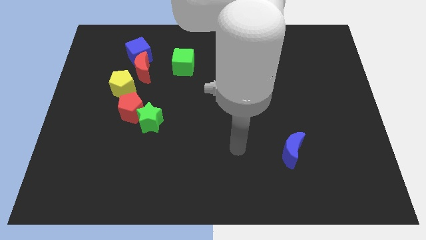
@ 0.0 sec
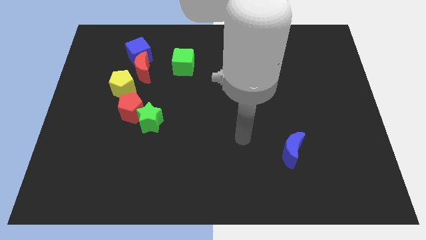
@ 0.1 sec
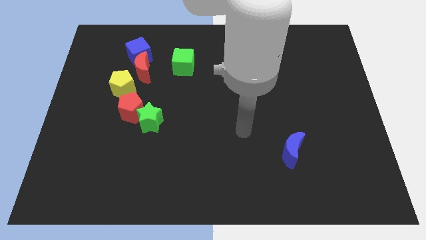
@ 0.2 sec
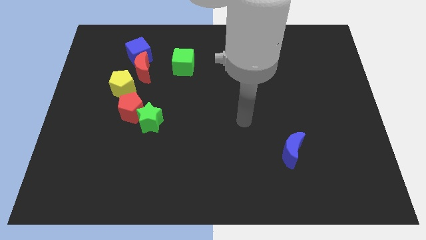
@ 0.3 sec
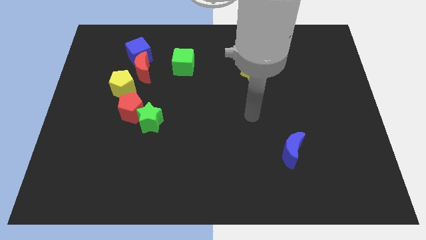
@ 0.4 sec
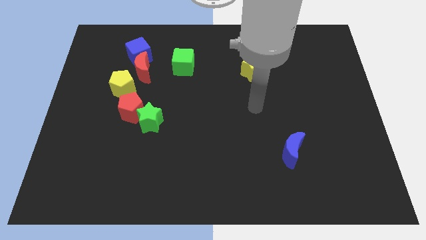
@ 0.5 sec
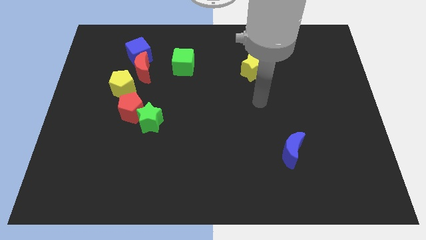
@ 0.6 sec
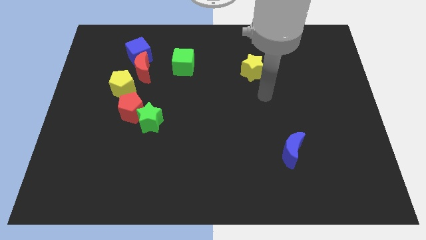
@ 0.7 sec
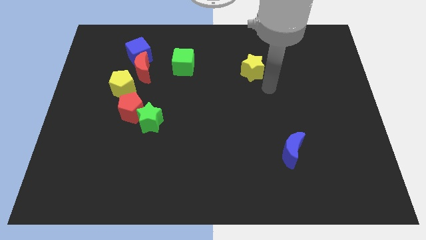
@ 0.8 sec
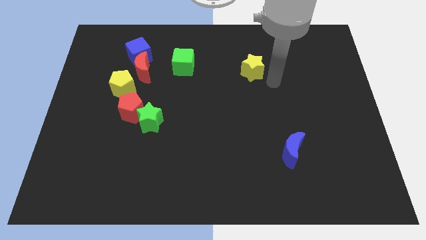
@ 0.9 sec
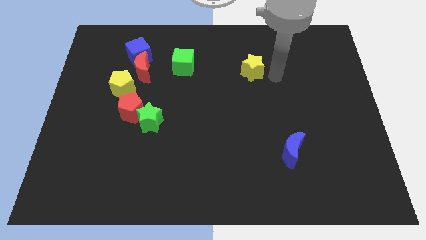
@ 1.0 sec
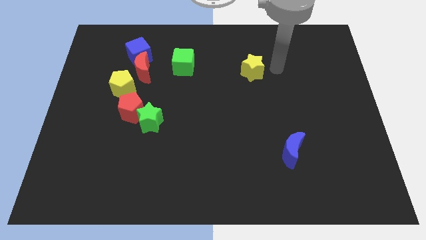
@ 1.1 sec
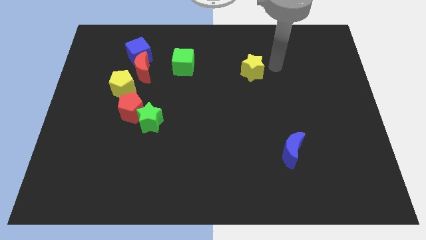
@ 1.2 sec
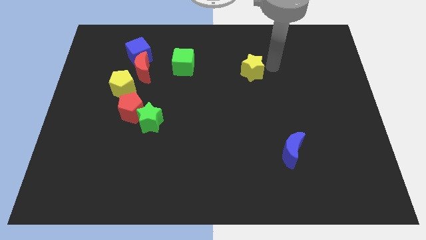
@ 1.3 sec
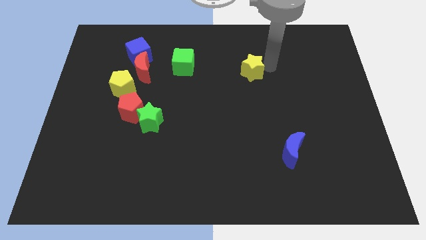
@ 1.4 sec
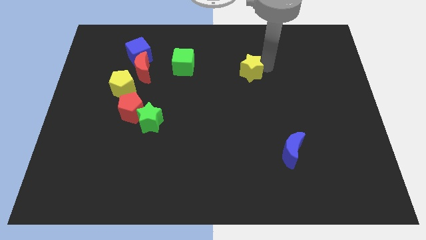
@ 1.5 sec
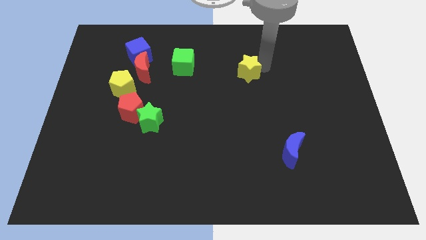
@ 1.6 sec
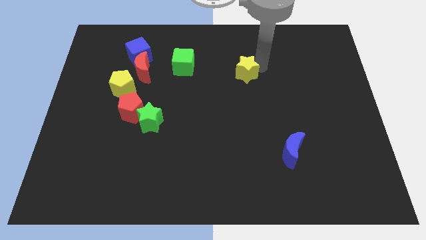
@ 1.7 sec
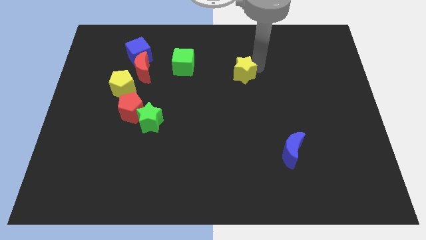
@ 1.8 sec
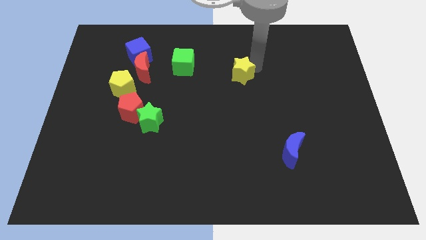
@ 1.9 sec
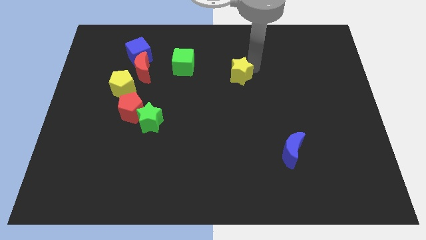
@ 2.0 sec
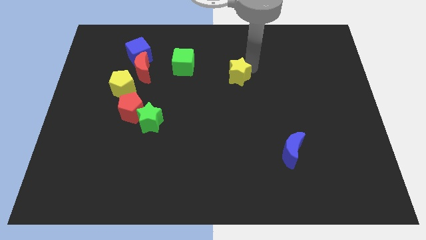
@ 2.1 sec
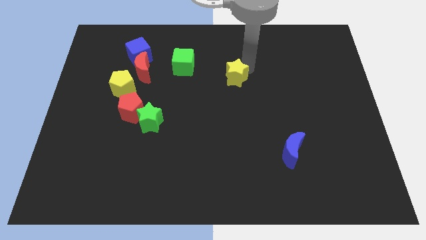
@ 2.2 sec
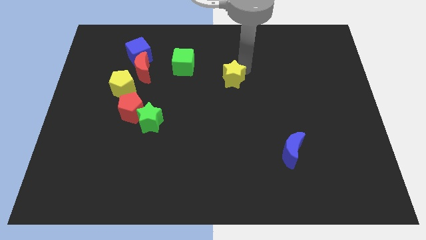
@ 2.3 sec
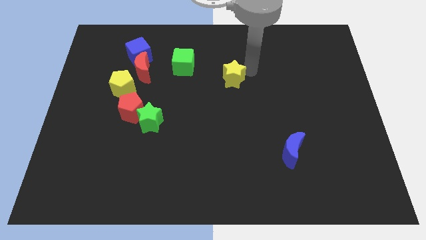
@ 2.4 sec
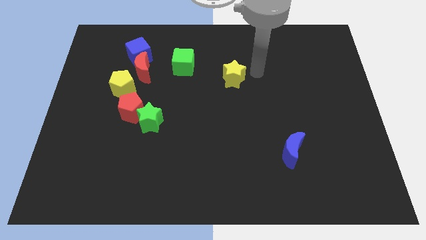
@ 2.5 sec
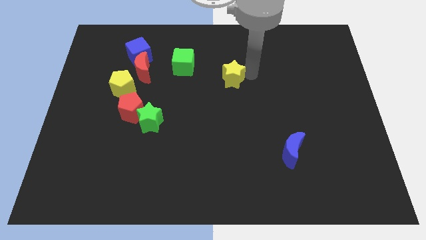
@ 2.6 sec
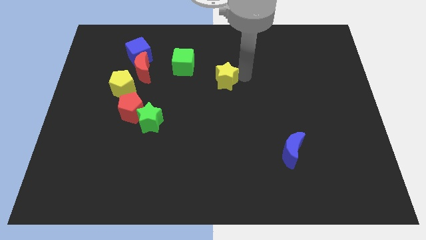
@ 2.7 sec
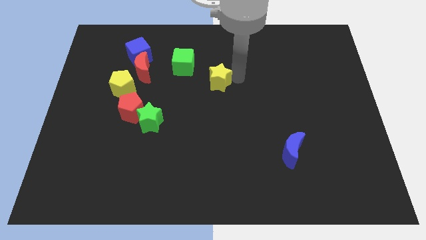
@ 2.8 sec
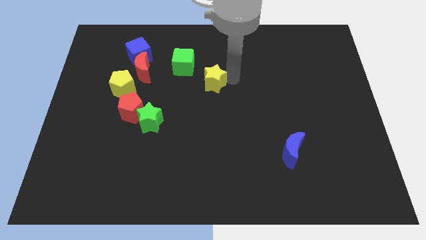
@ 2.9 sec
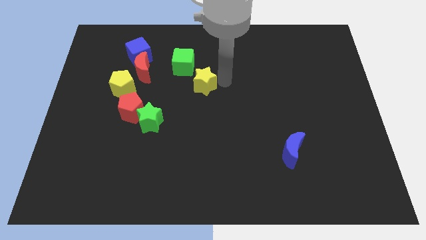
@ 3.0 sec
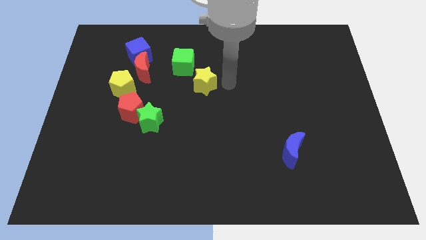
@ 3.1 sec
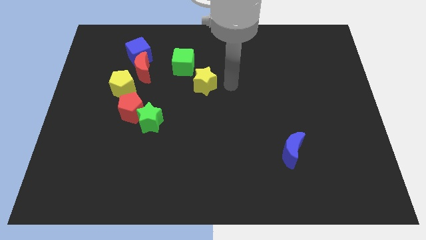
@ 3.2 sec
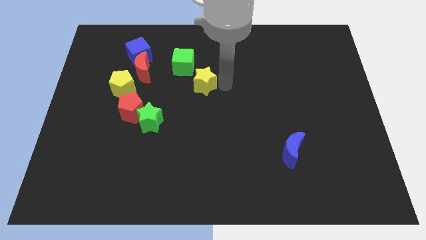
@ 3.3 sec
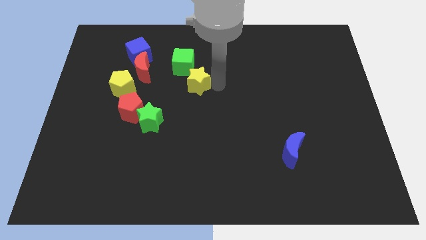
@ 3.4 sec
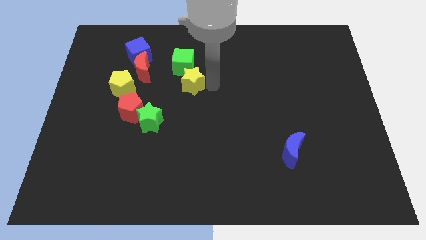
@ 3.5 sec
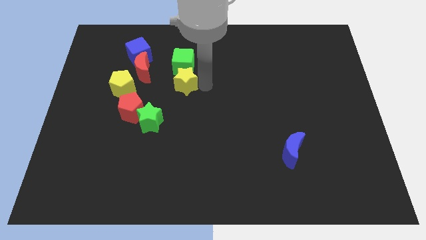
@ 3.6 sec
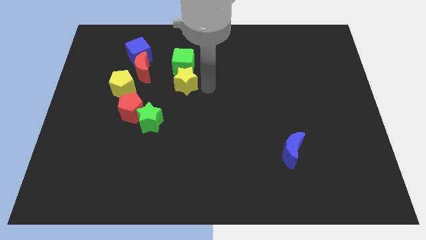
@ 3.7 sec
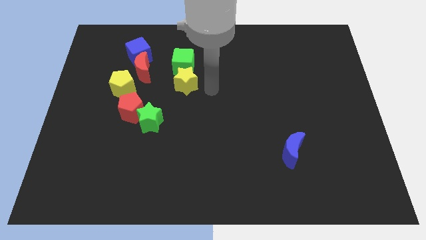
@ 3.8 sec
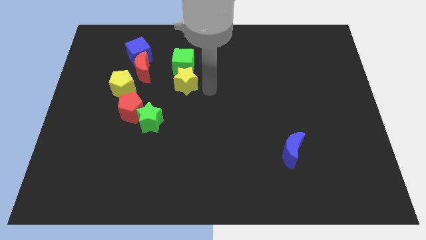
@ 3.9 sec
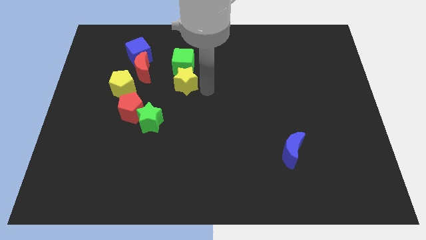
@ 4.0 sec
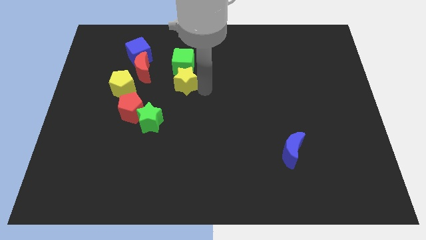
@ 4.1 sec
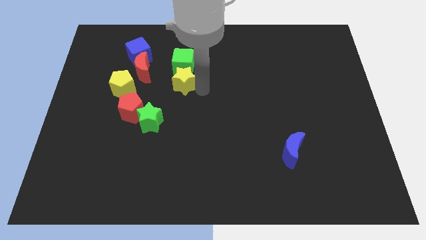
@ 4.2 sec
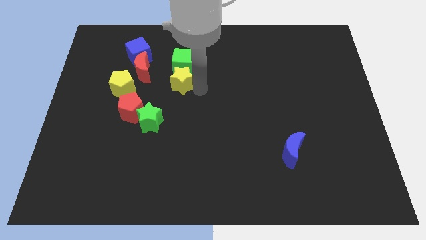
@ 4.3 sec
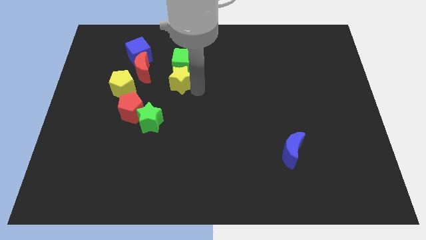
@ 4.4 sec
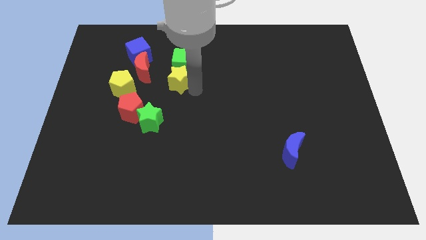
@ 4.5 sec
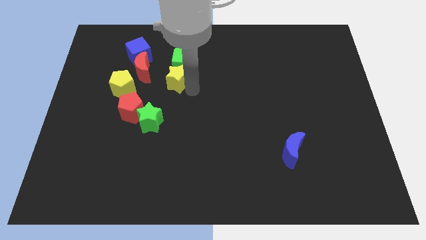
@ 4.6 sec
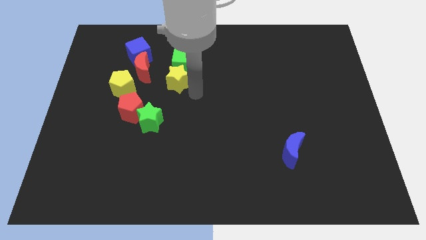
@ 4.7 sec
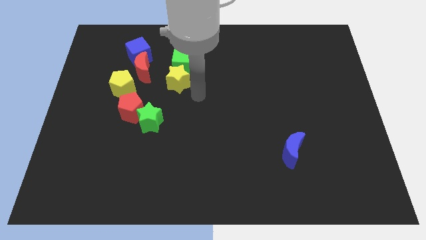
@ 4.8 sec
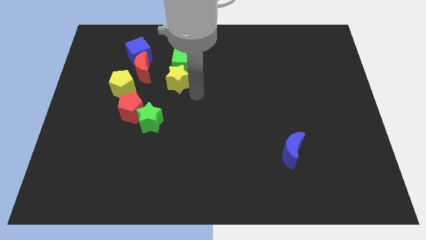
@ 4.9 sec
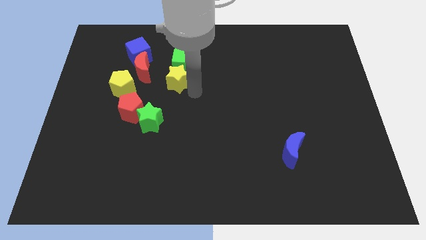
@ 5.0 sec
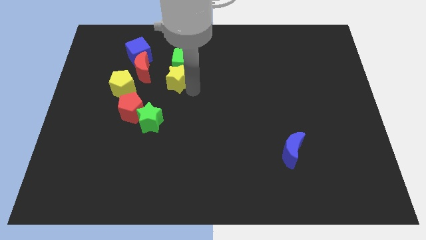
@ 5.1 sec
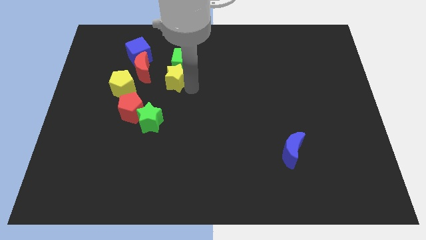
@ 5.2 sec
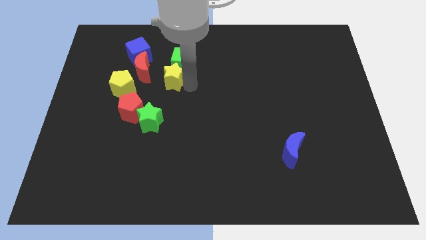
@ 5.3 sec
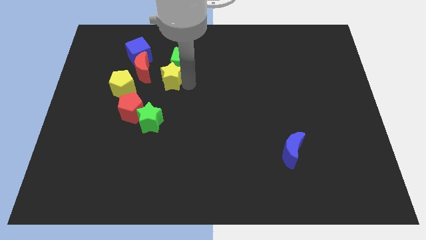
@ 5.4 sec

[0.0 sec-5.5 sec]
push the yellow star to the bottom right of the blue cube

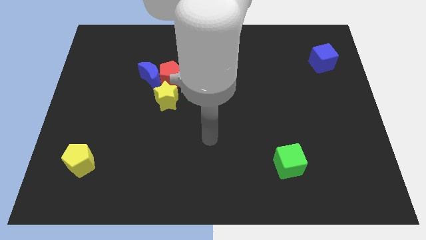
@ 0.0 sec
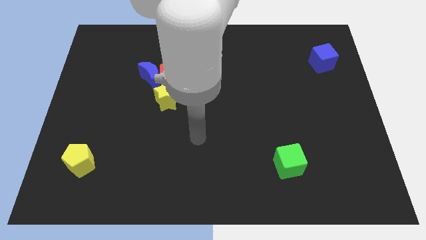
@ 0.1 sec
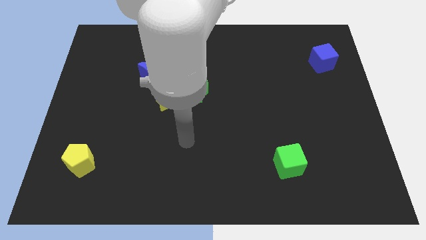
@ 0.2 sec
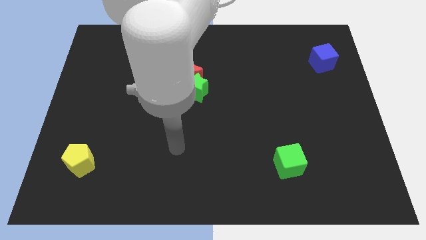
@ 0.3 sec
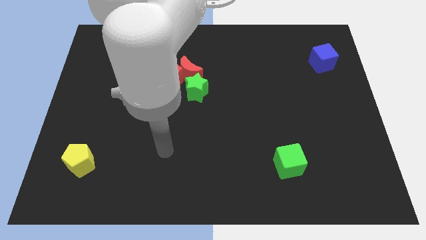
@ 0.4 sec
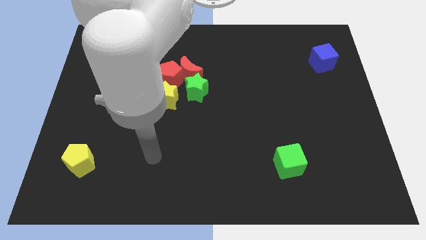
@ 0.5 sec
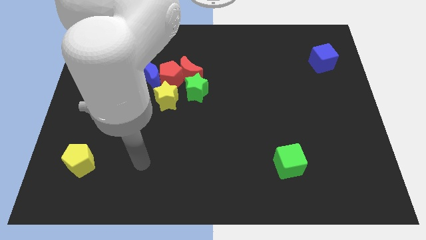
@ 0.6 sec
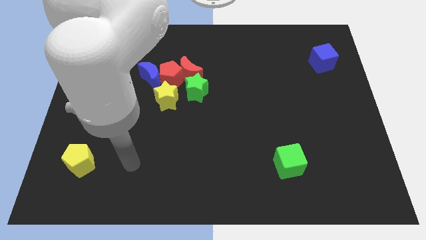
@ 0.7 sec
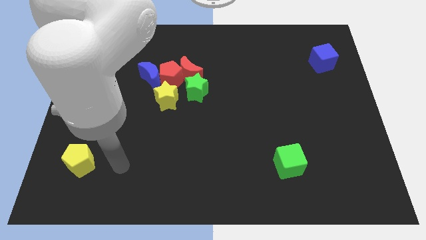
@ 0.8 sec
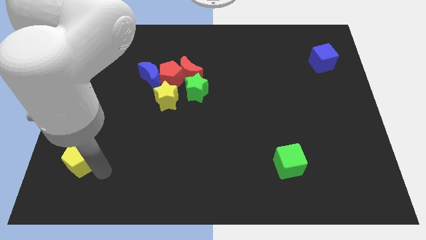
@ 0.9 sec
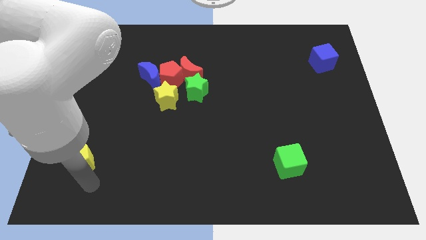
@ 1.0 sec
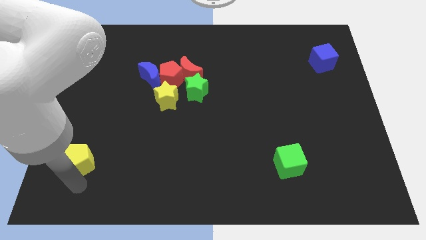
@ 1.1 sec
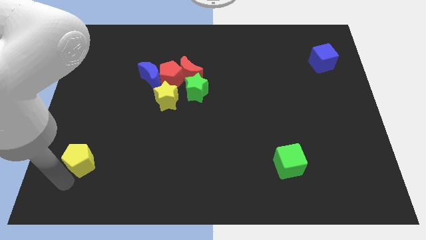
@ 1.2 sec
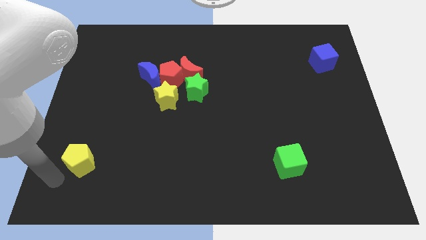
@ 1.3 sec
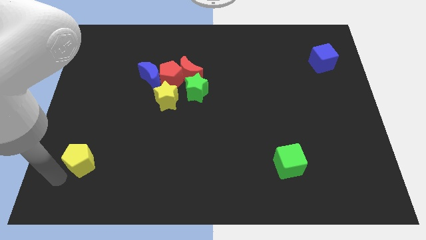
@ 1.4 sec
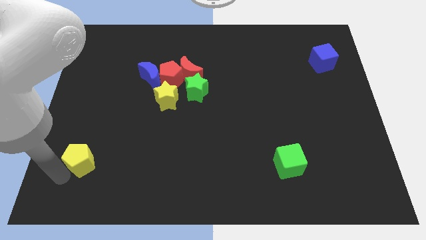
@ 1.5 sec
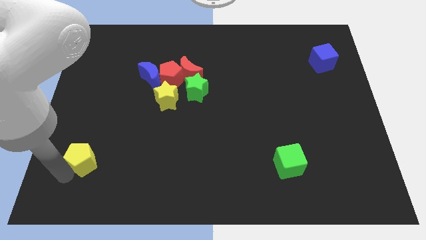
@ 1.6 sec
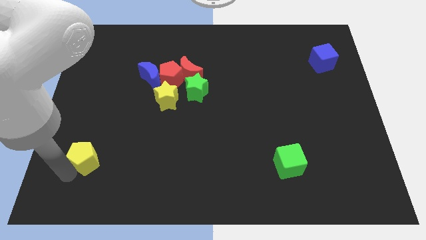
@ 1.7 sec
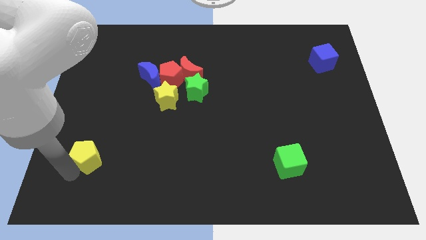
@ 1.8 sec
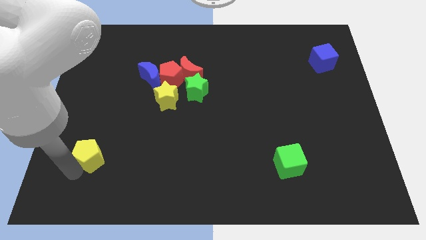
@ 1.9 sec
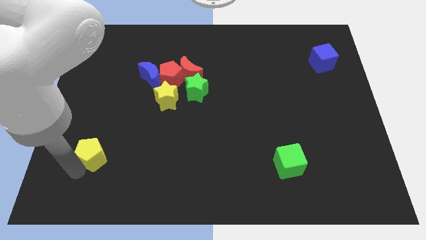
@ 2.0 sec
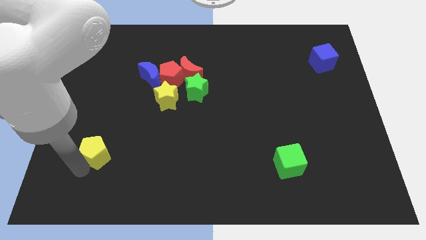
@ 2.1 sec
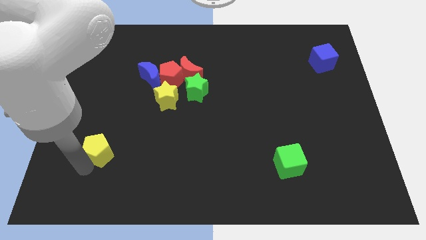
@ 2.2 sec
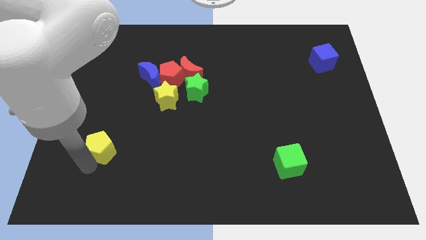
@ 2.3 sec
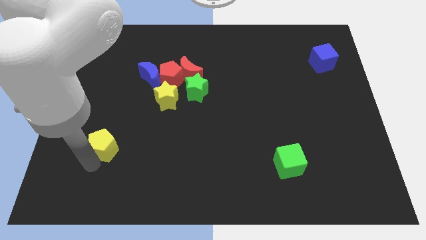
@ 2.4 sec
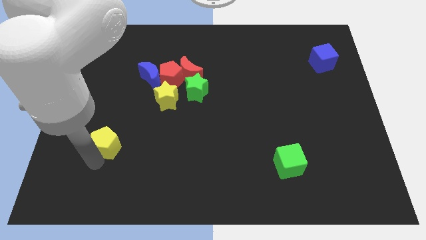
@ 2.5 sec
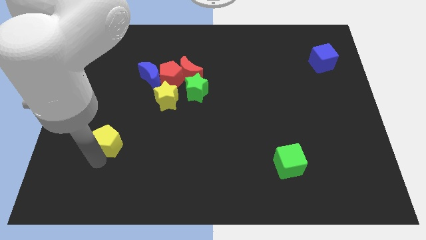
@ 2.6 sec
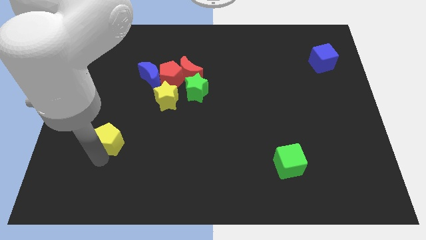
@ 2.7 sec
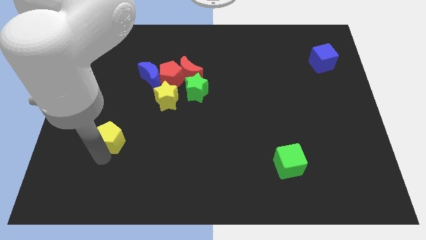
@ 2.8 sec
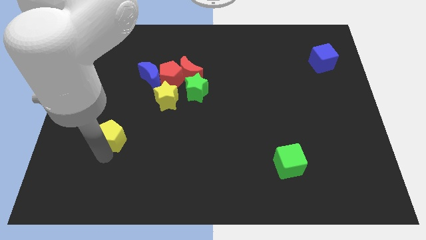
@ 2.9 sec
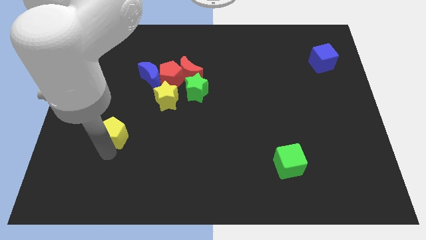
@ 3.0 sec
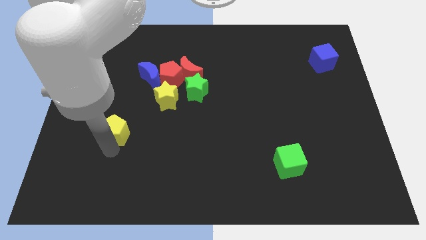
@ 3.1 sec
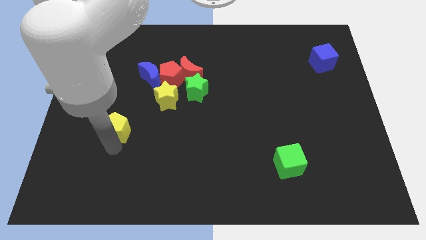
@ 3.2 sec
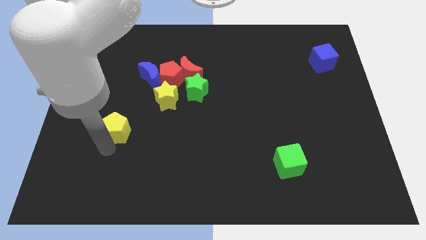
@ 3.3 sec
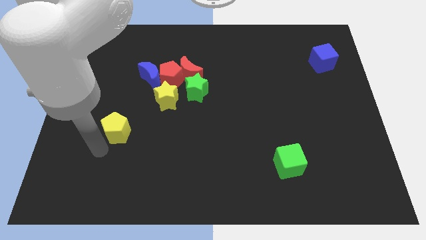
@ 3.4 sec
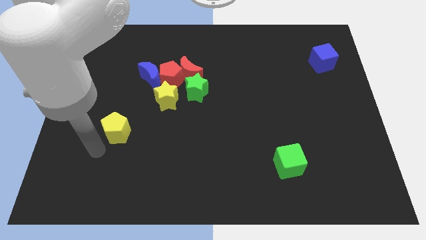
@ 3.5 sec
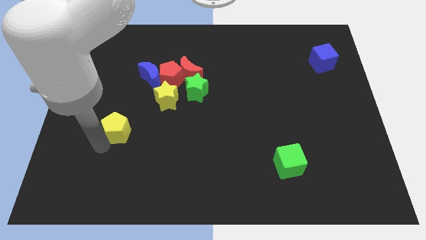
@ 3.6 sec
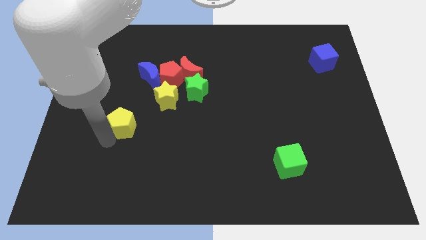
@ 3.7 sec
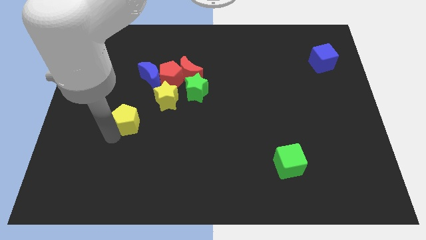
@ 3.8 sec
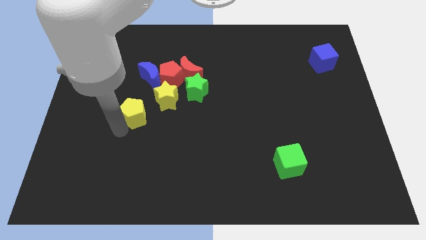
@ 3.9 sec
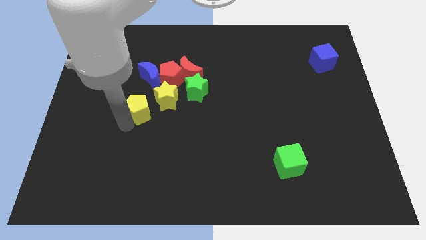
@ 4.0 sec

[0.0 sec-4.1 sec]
put the yellow pentagon diagonally down and to the left of the red pentagon
